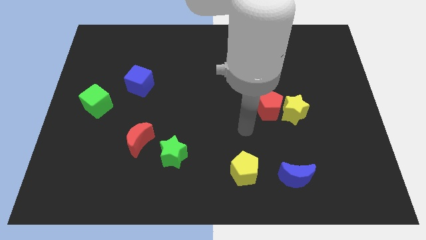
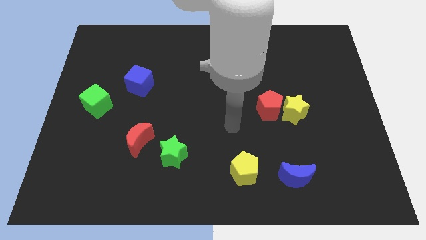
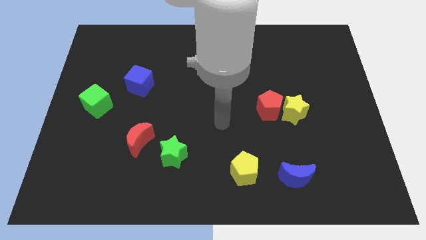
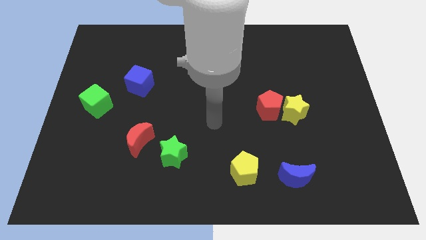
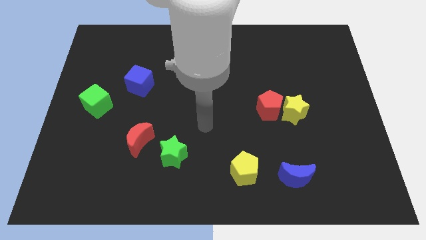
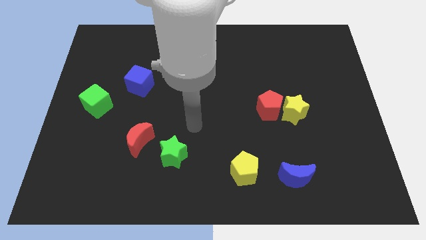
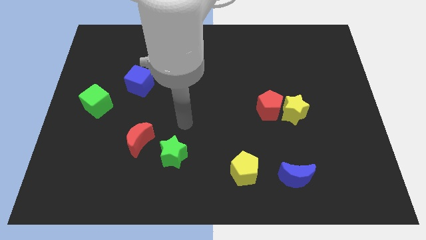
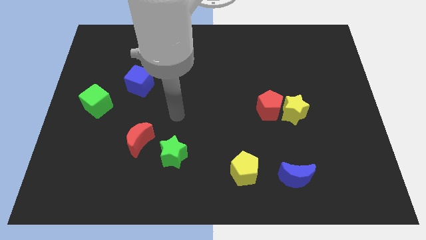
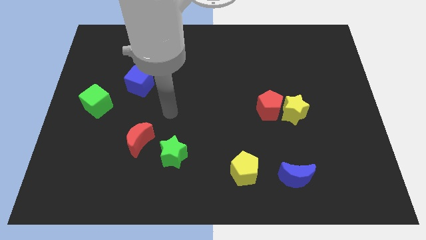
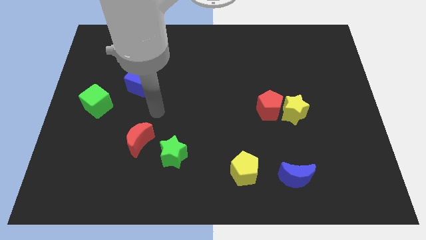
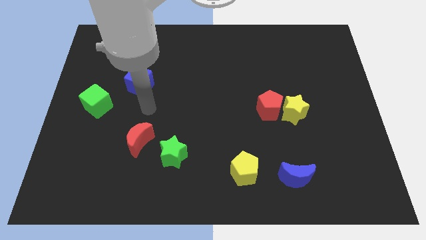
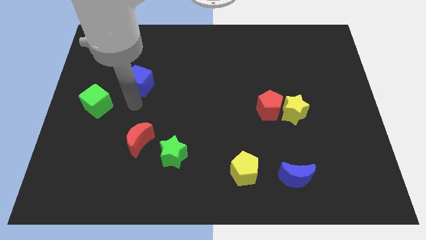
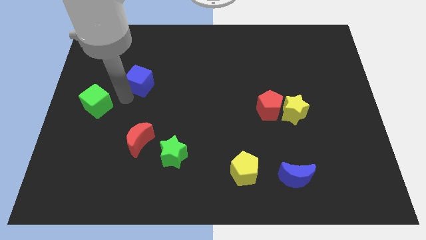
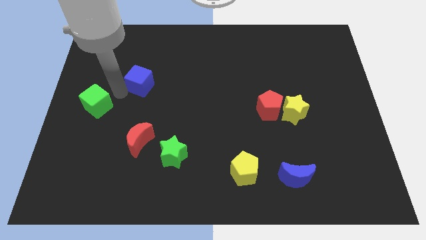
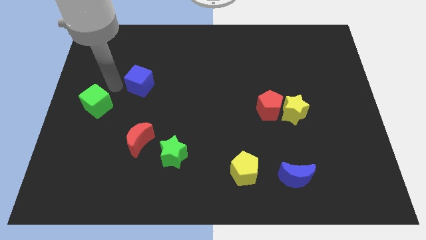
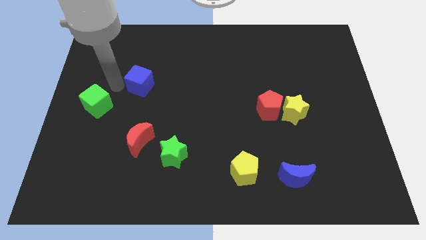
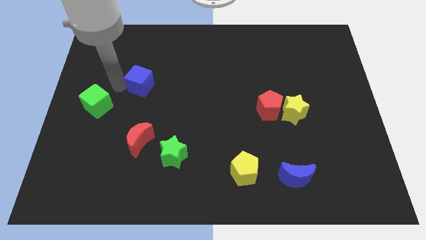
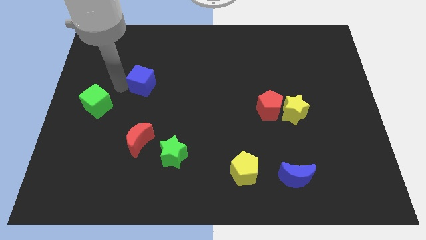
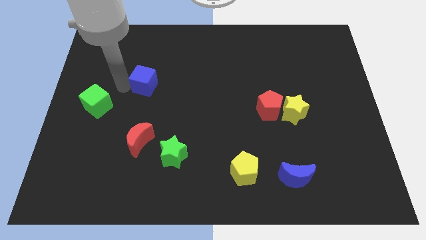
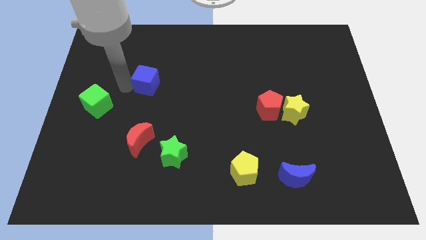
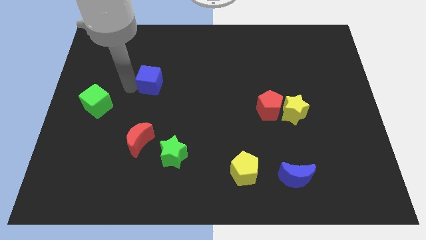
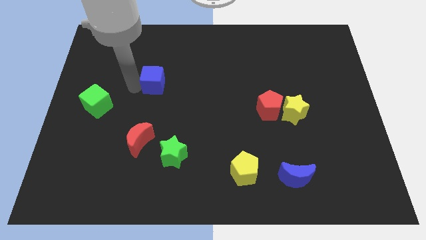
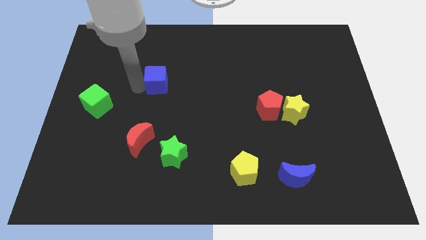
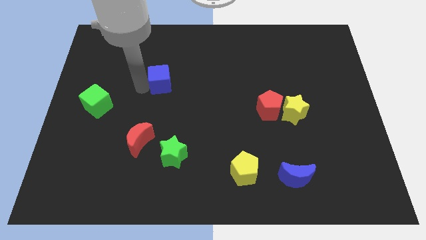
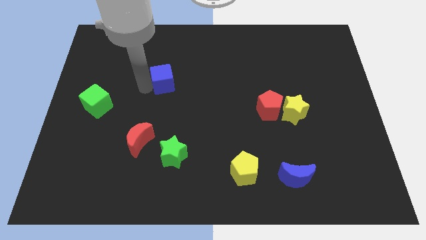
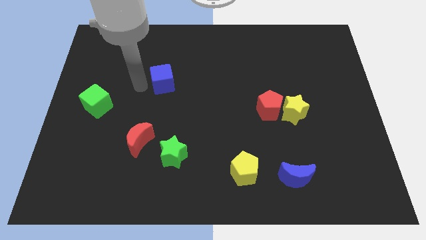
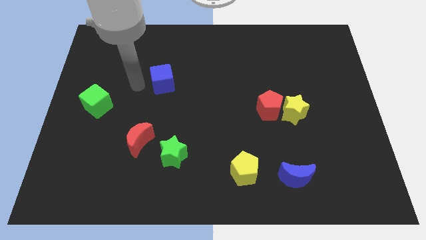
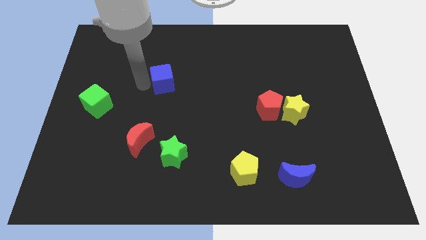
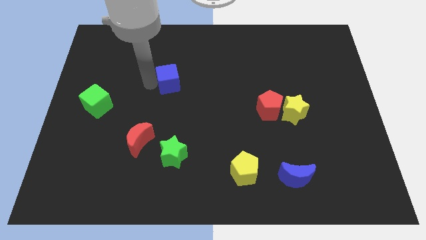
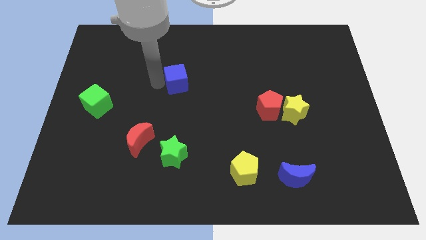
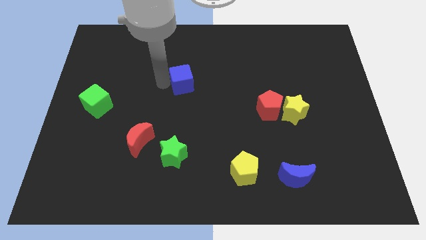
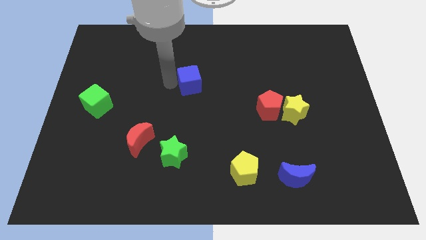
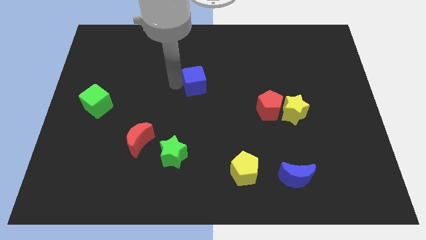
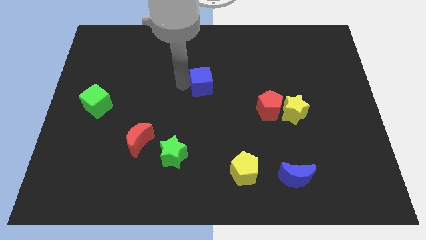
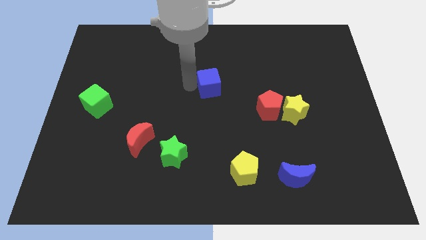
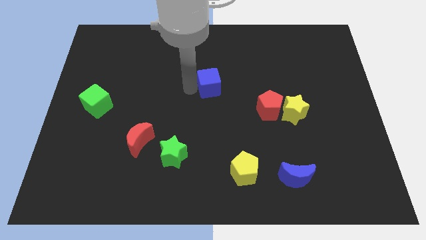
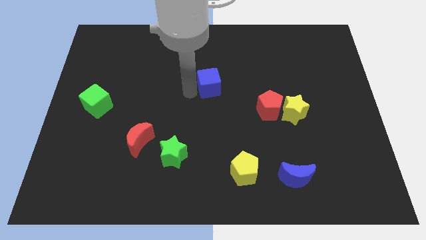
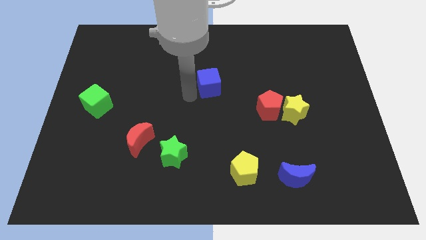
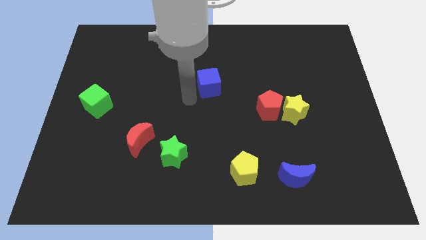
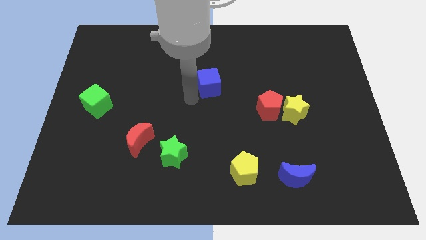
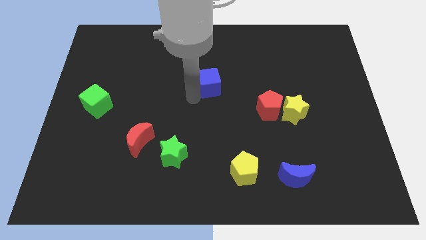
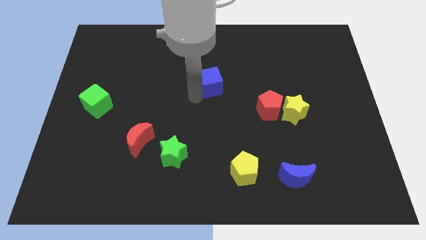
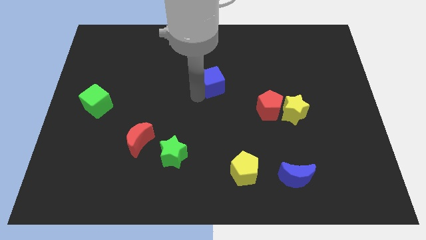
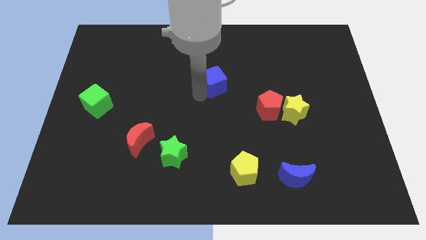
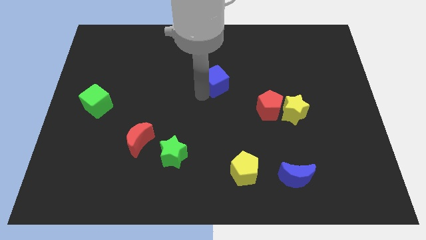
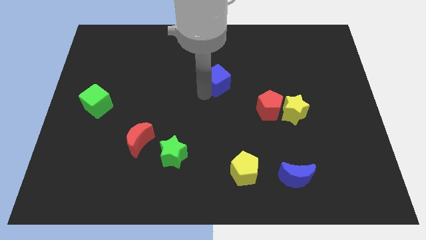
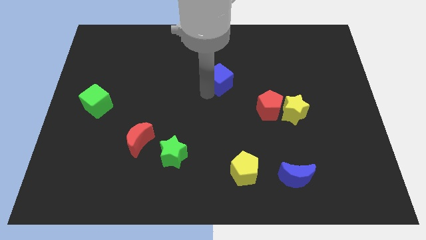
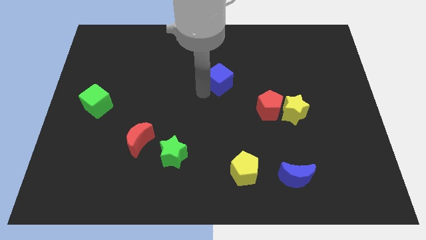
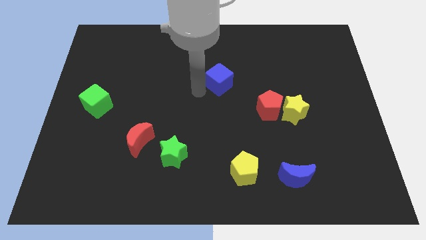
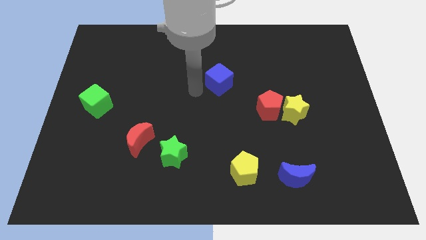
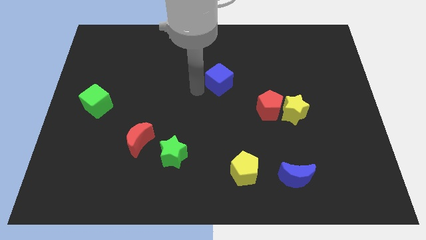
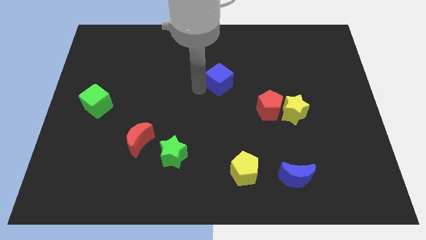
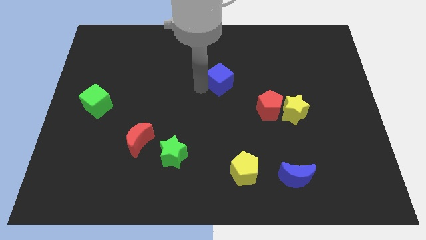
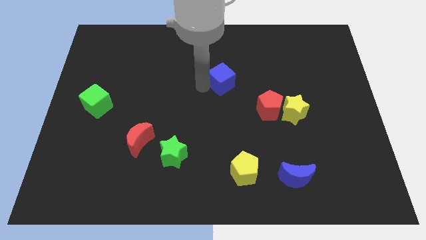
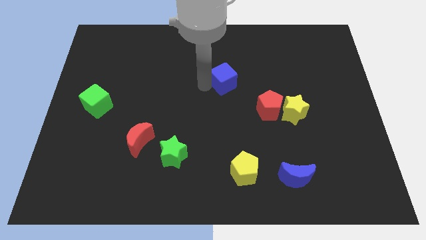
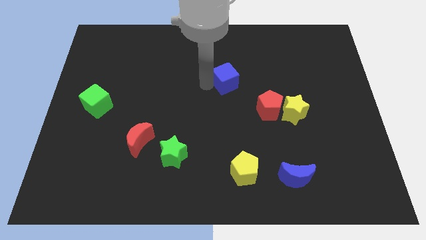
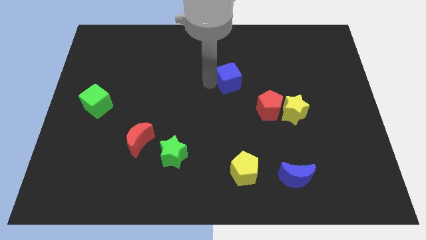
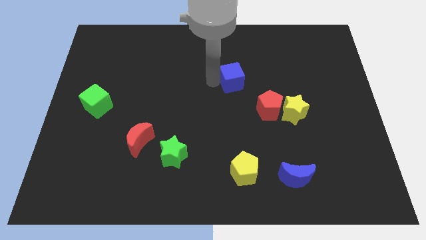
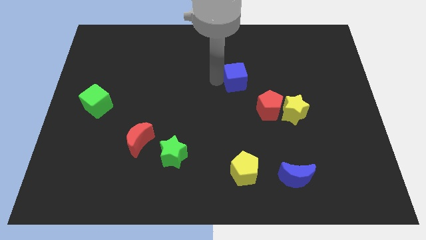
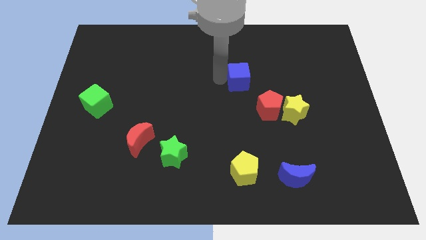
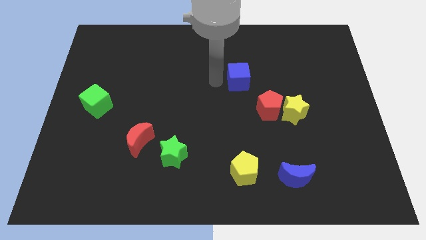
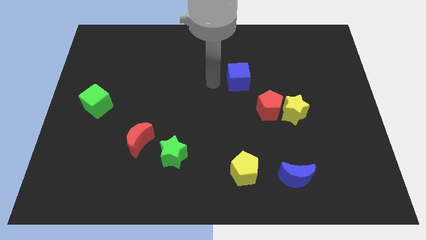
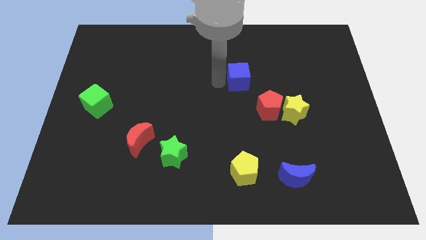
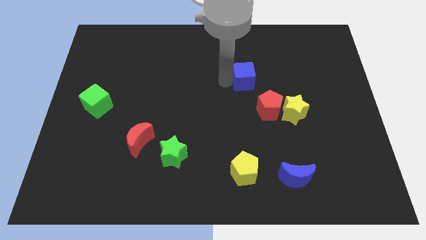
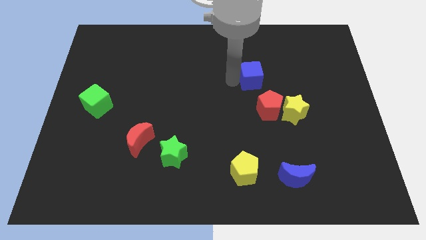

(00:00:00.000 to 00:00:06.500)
push the blue cube to the top of the red pentagon

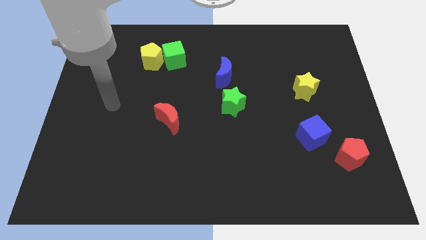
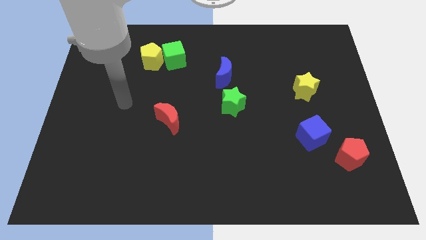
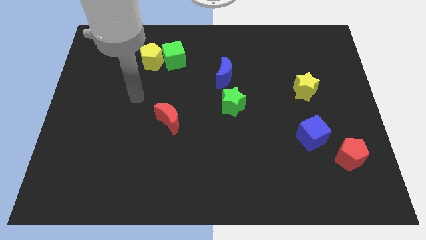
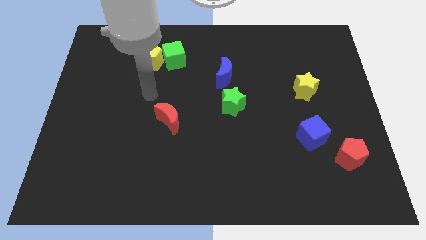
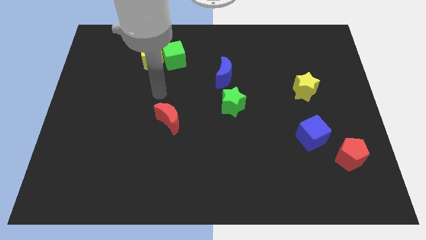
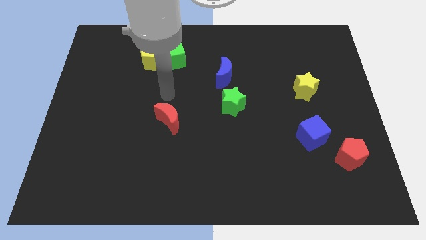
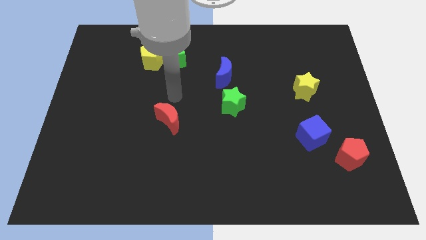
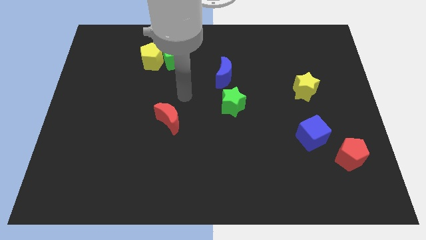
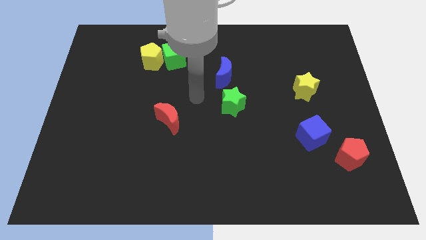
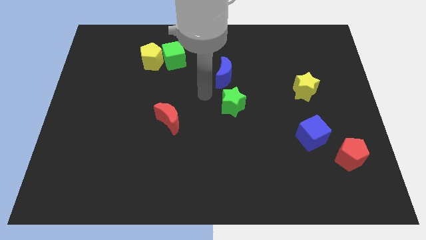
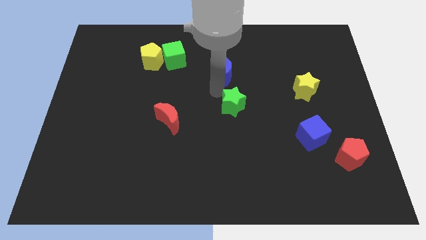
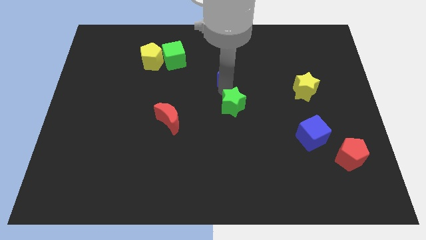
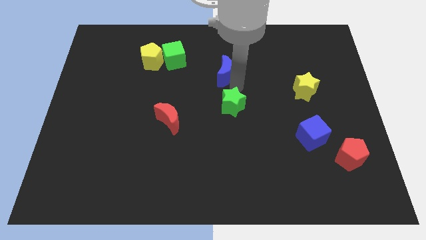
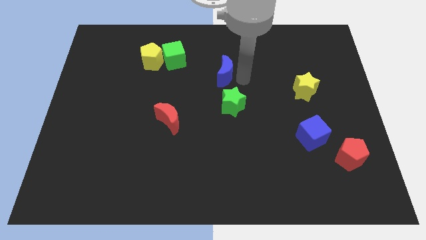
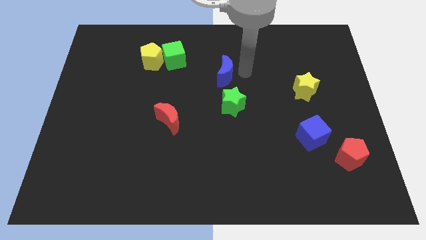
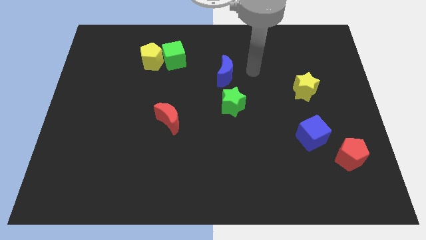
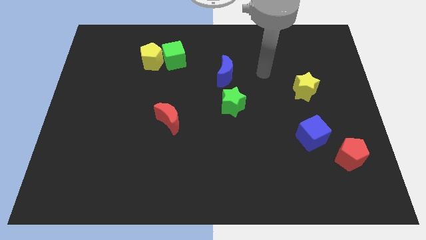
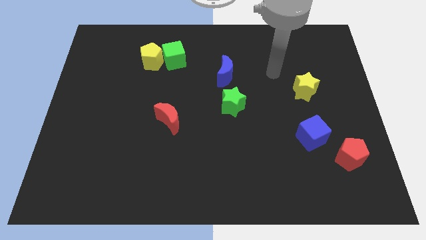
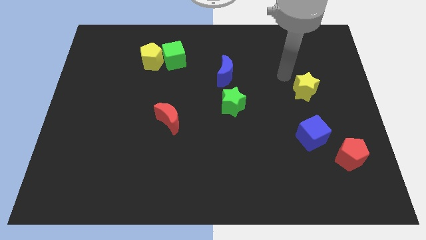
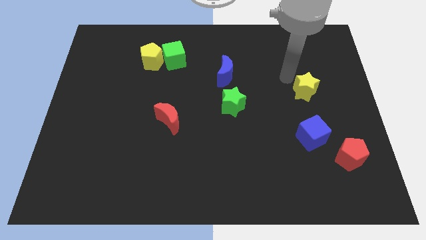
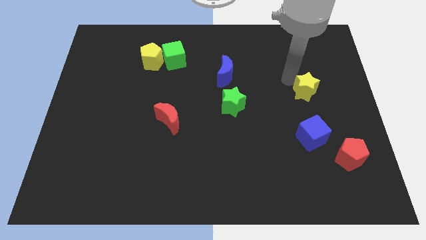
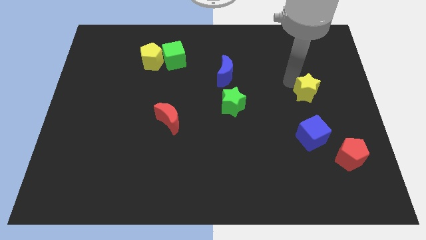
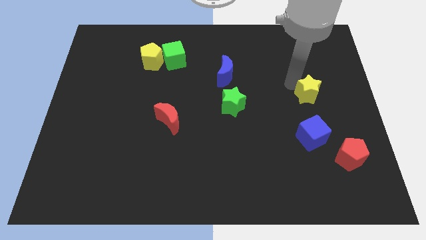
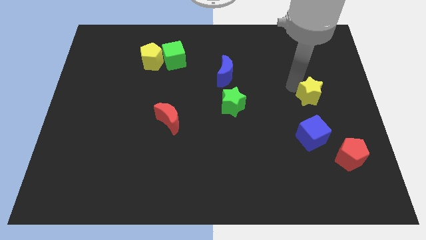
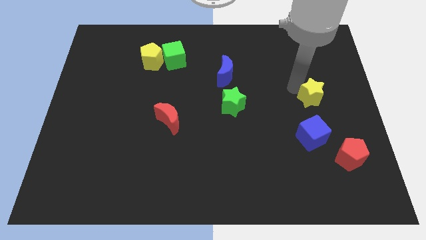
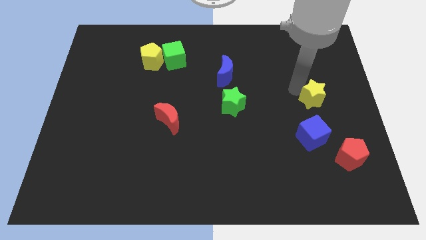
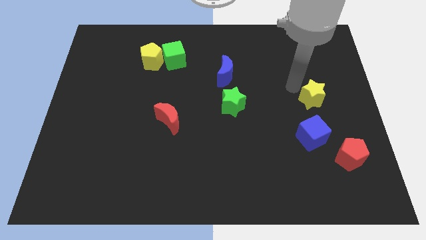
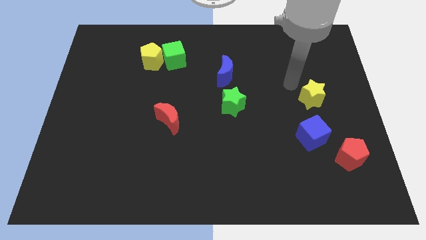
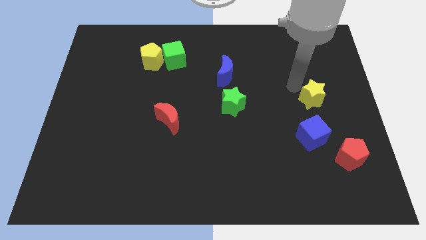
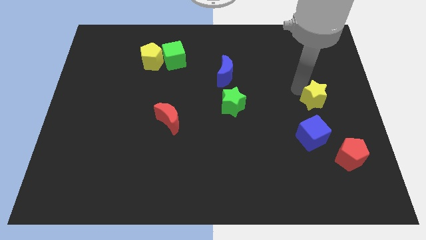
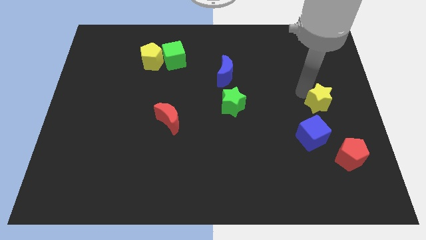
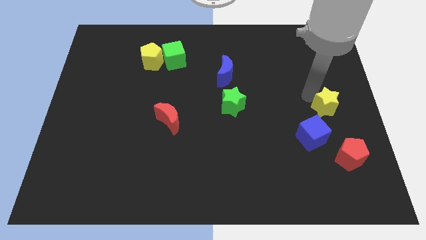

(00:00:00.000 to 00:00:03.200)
push the yellow star to the top side of the red pentagon
